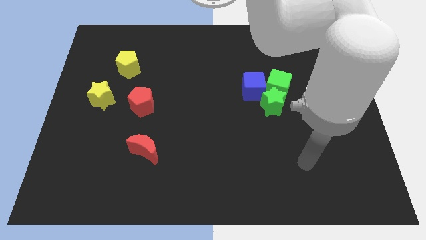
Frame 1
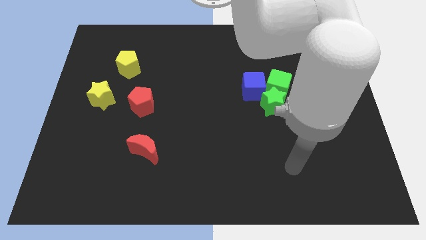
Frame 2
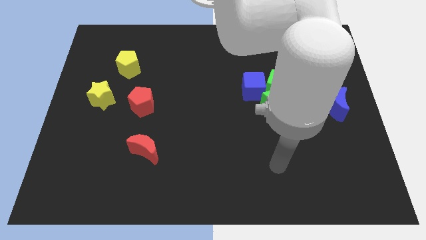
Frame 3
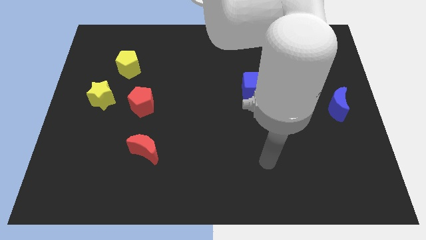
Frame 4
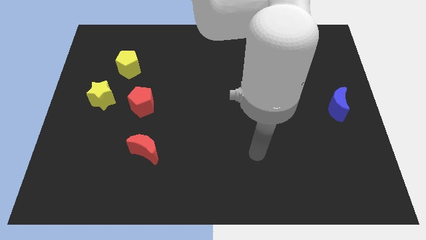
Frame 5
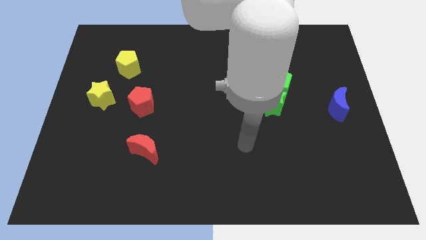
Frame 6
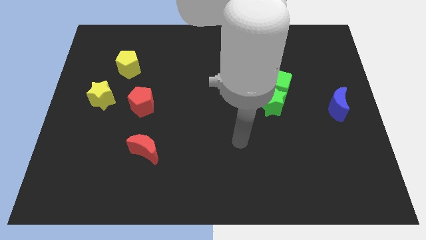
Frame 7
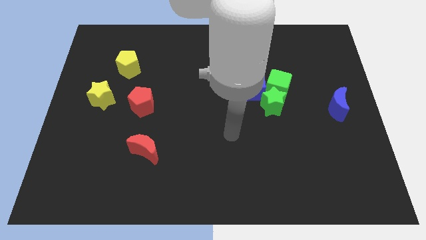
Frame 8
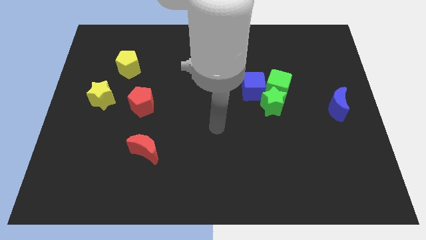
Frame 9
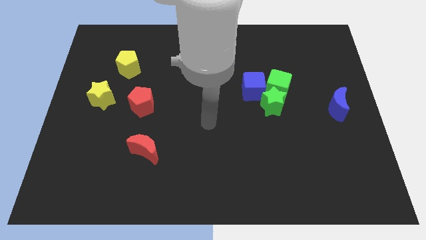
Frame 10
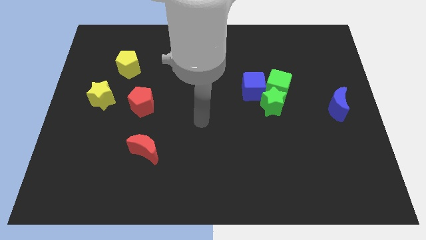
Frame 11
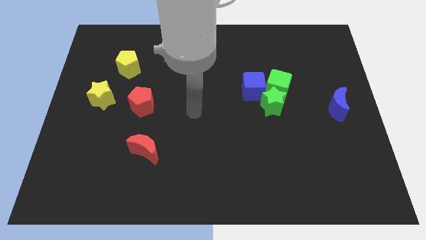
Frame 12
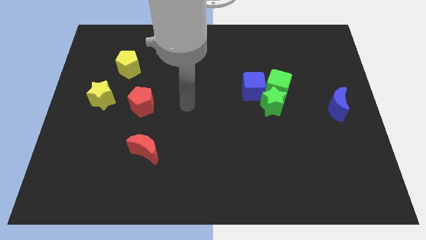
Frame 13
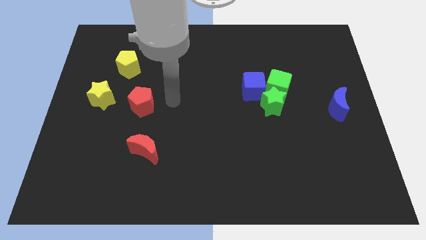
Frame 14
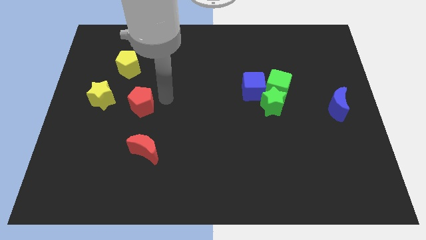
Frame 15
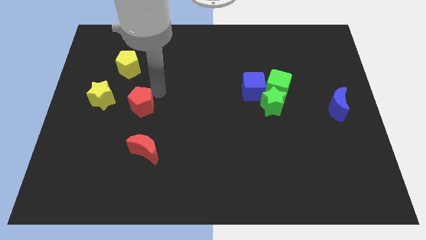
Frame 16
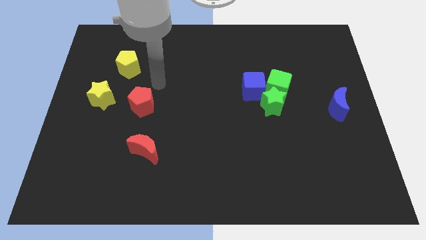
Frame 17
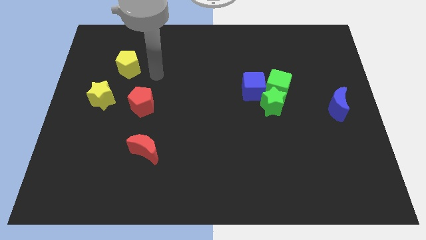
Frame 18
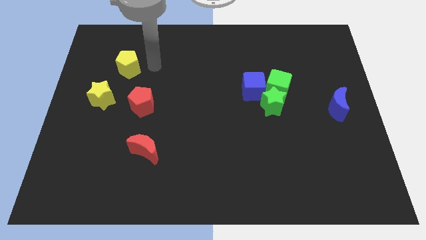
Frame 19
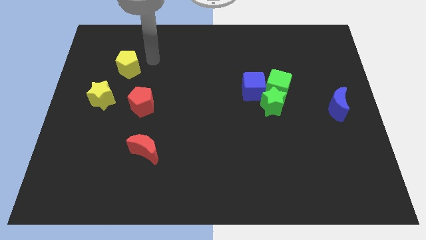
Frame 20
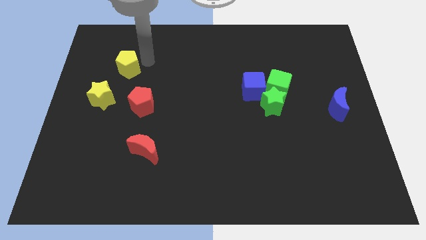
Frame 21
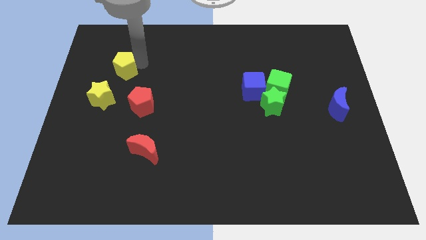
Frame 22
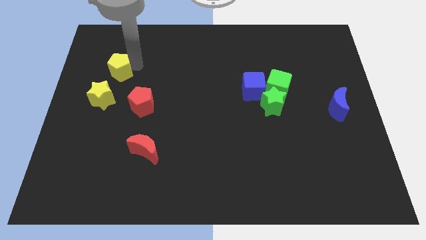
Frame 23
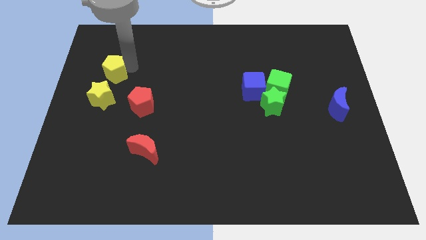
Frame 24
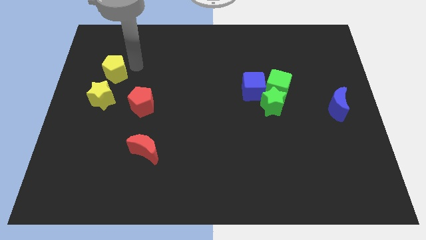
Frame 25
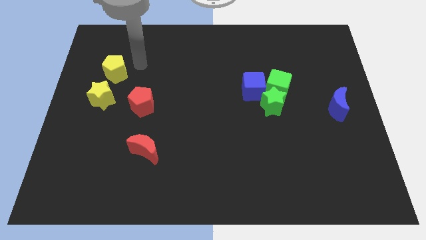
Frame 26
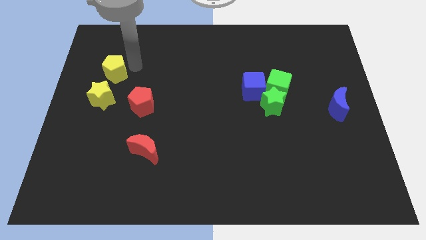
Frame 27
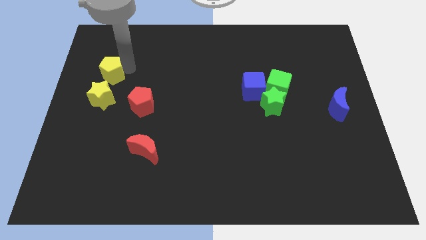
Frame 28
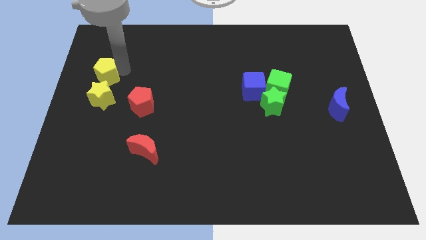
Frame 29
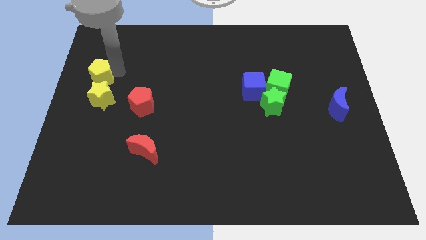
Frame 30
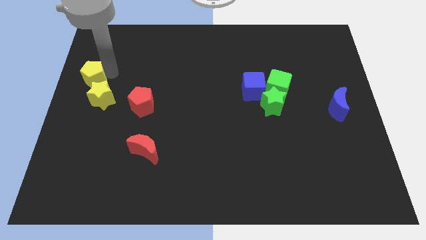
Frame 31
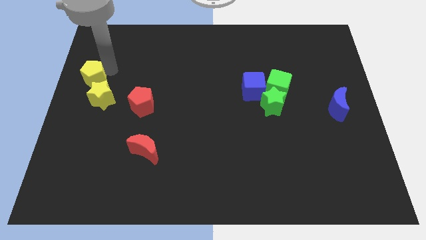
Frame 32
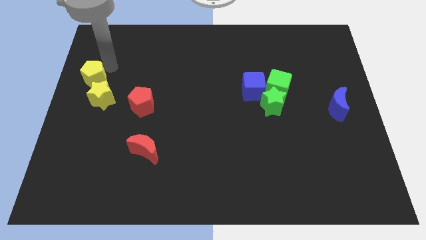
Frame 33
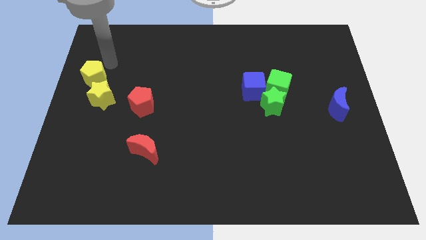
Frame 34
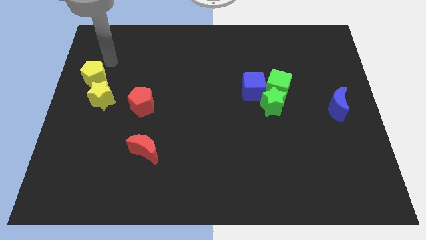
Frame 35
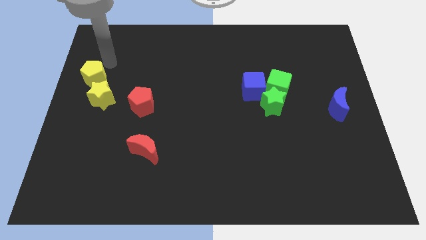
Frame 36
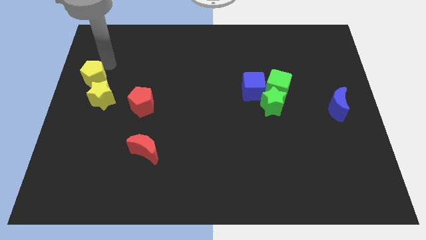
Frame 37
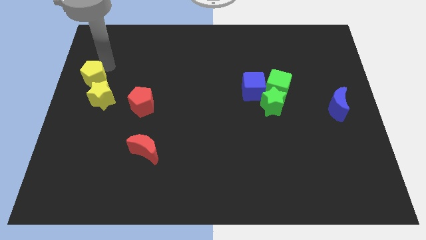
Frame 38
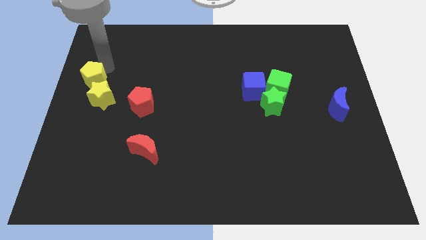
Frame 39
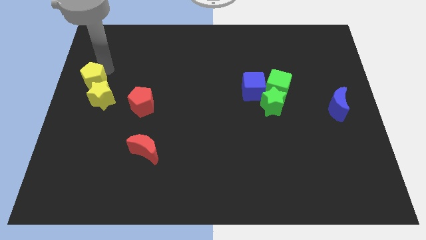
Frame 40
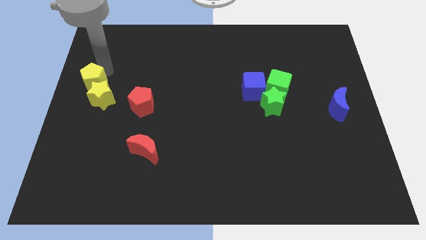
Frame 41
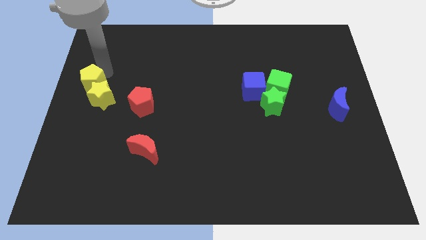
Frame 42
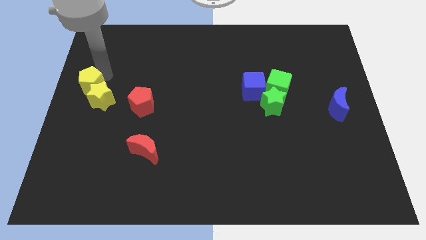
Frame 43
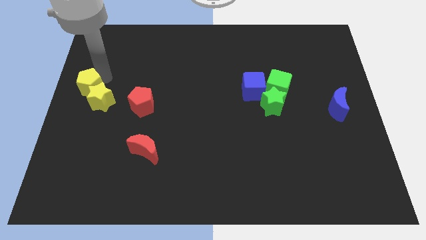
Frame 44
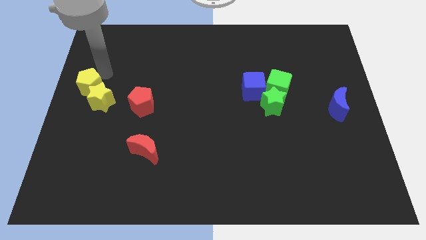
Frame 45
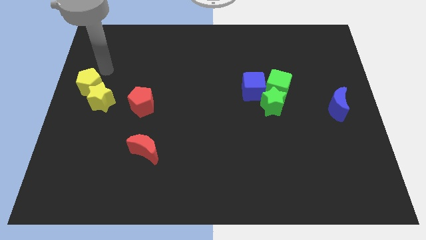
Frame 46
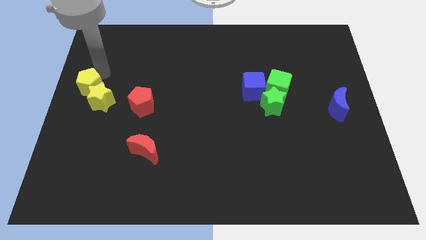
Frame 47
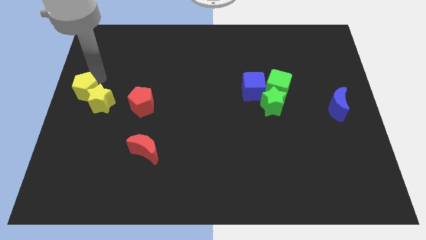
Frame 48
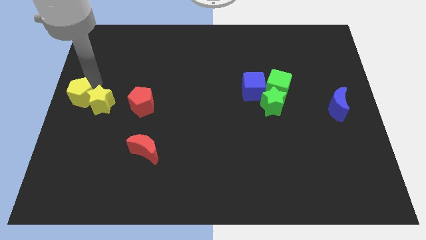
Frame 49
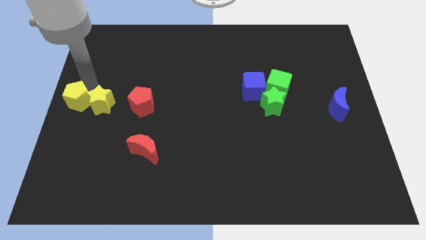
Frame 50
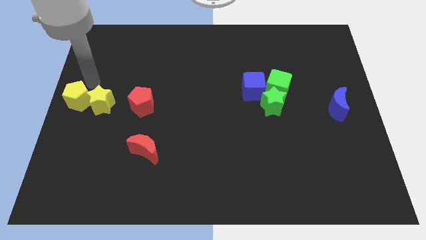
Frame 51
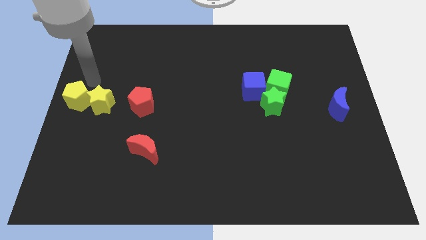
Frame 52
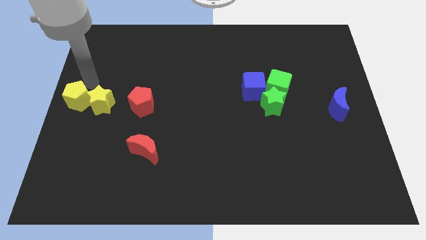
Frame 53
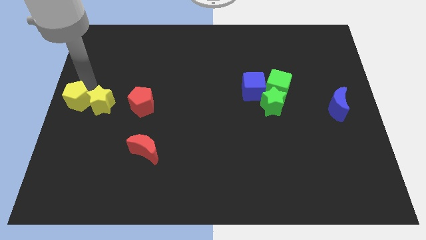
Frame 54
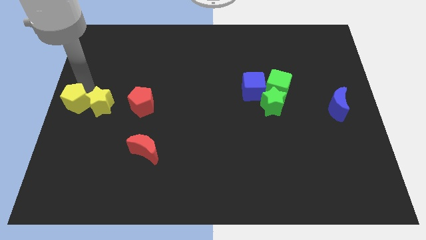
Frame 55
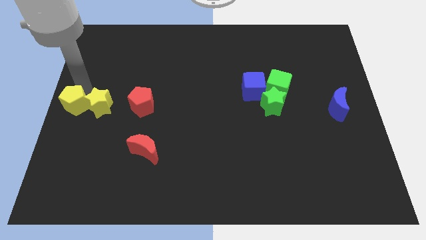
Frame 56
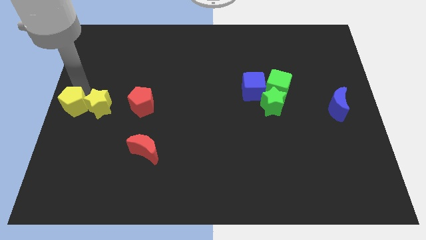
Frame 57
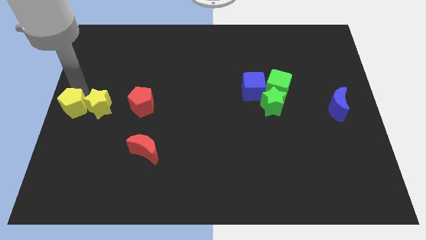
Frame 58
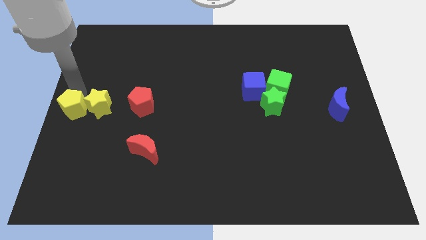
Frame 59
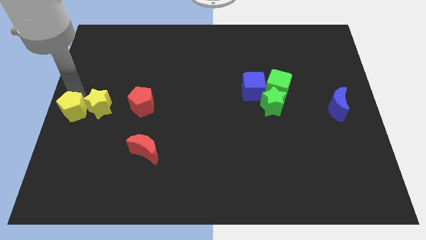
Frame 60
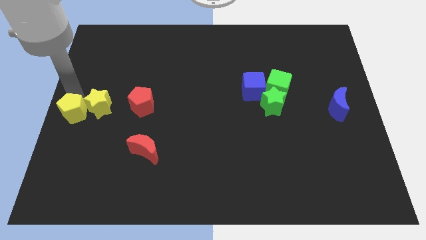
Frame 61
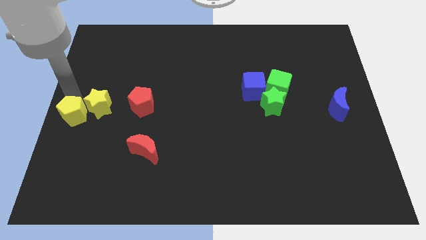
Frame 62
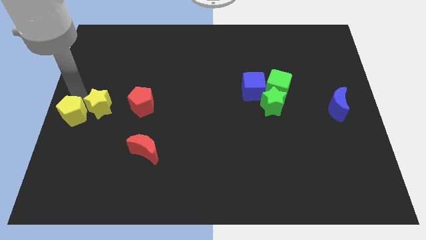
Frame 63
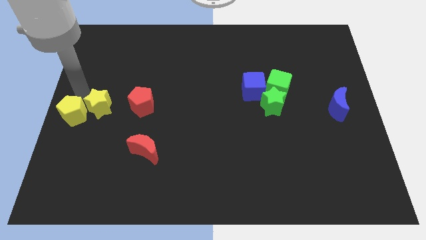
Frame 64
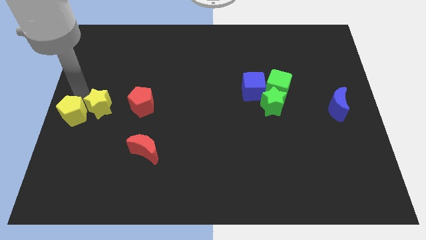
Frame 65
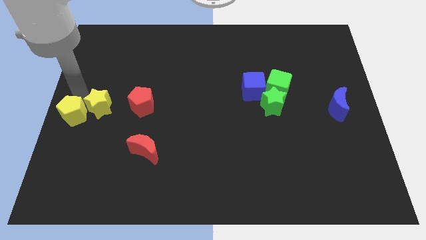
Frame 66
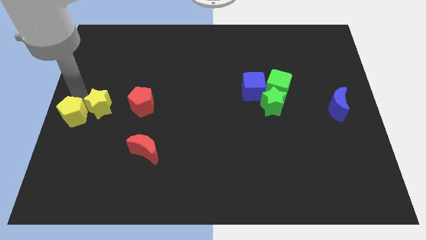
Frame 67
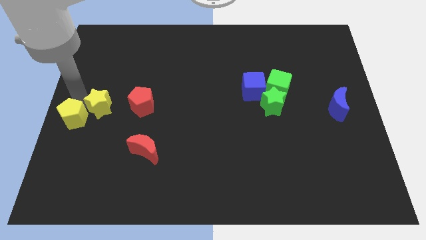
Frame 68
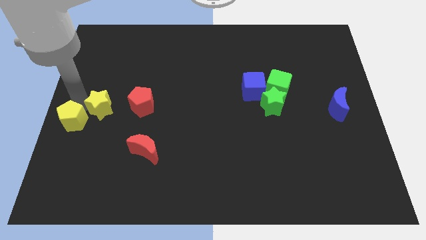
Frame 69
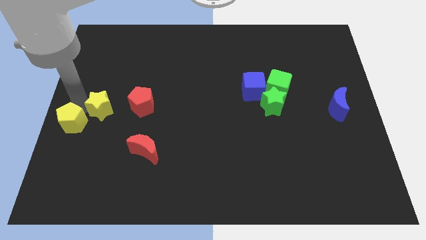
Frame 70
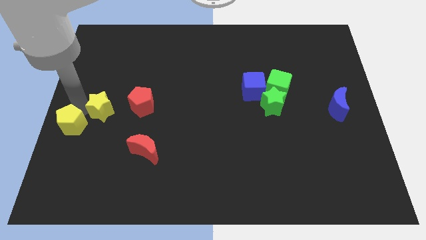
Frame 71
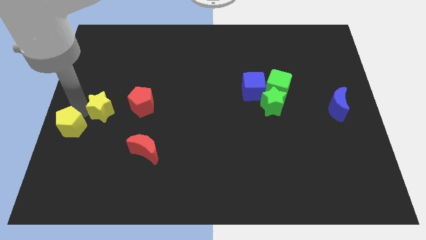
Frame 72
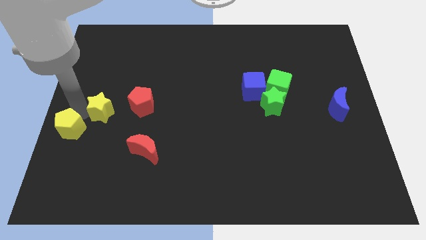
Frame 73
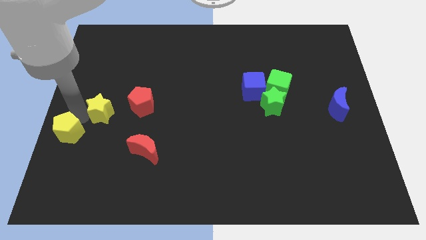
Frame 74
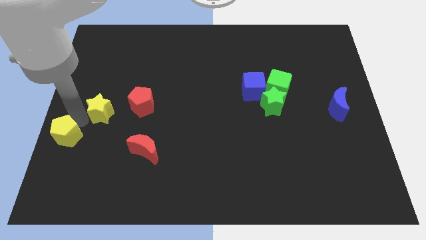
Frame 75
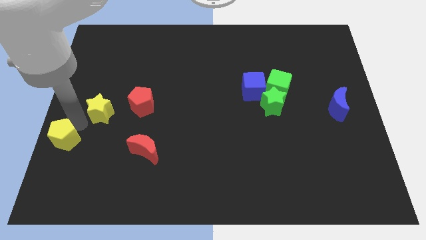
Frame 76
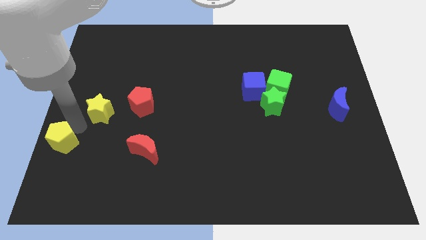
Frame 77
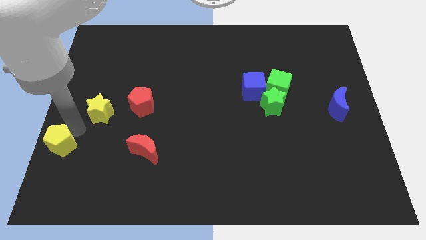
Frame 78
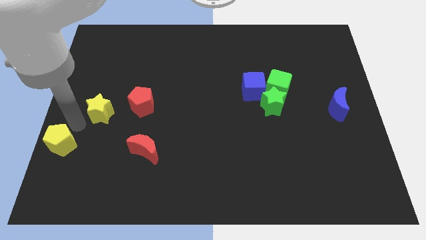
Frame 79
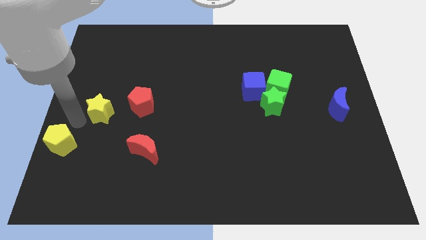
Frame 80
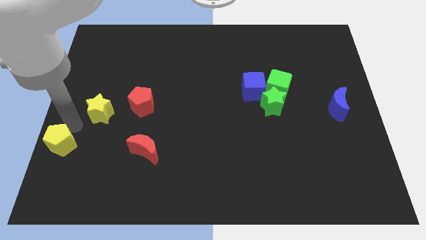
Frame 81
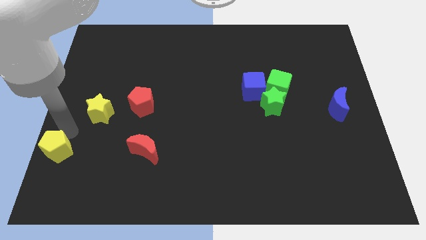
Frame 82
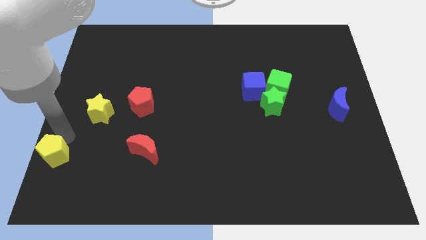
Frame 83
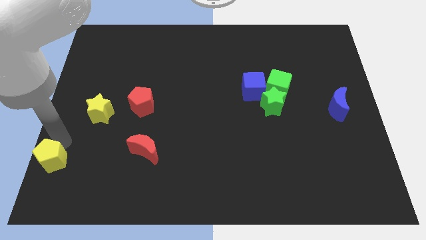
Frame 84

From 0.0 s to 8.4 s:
slide the yellow pentagon to the bottom left
